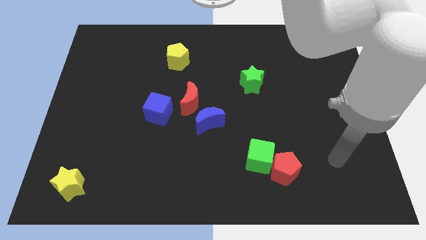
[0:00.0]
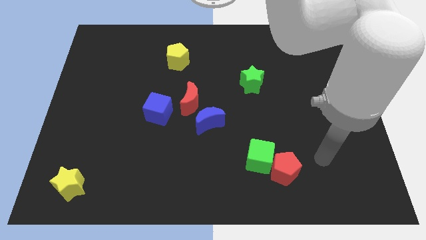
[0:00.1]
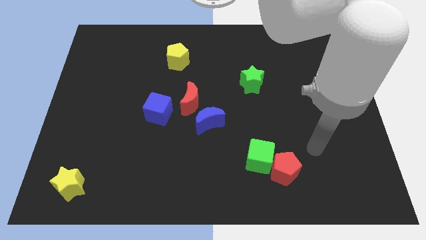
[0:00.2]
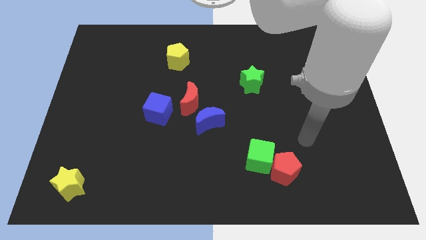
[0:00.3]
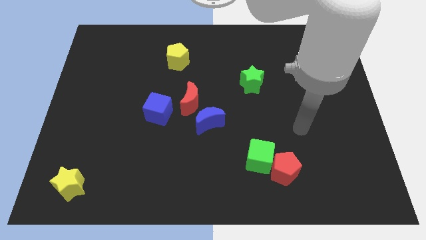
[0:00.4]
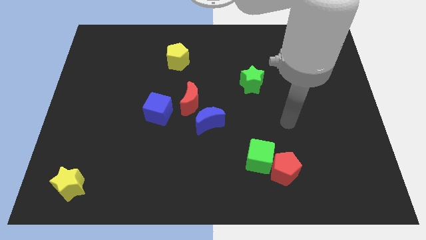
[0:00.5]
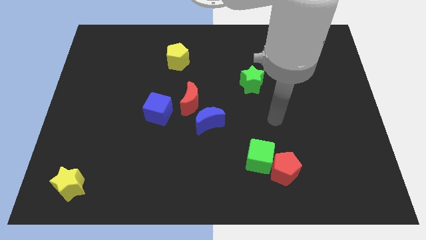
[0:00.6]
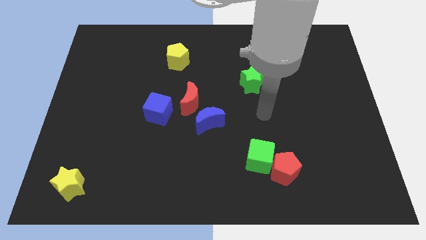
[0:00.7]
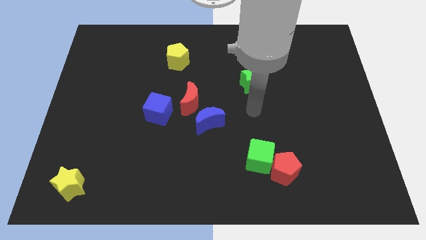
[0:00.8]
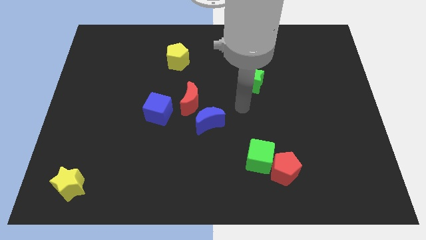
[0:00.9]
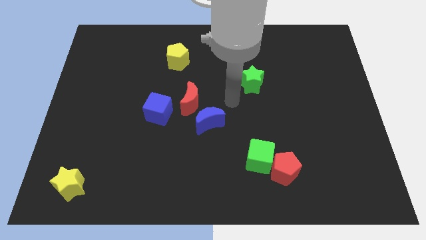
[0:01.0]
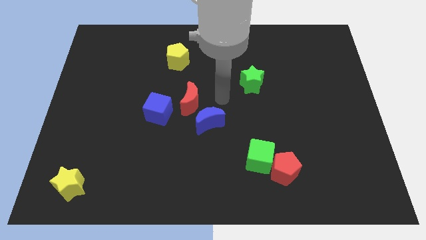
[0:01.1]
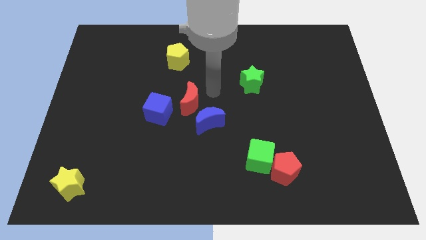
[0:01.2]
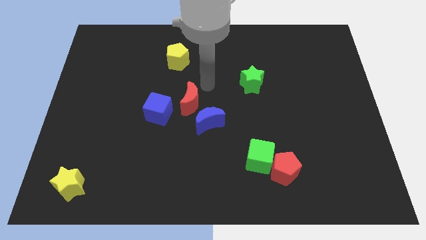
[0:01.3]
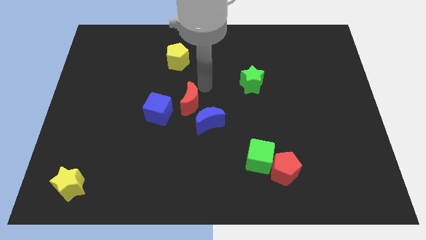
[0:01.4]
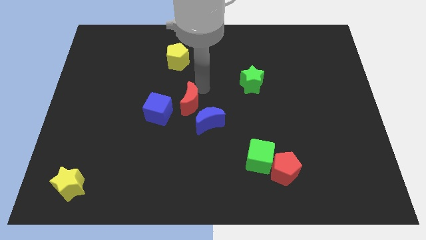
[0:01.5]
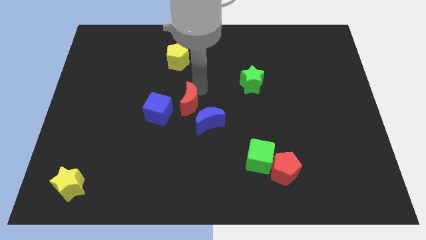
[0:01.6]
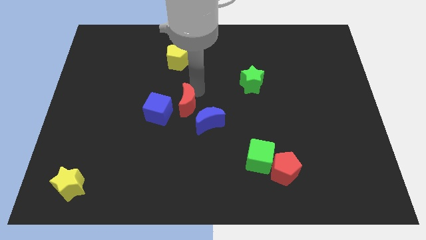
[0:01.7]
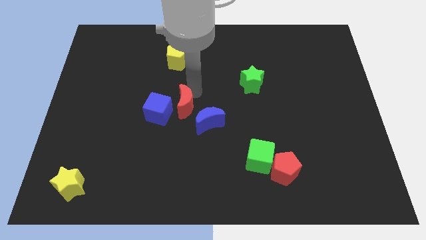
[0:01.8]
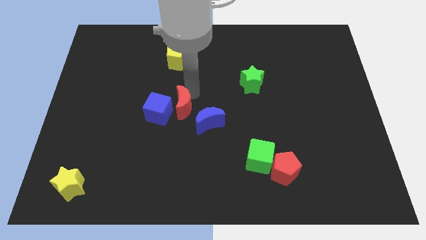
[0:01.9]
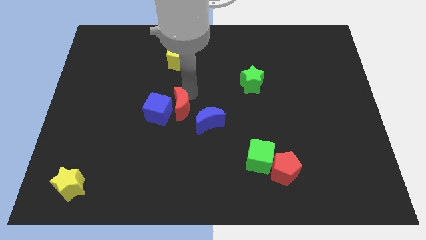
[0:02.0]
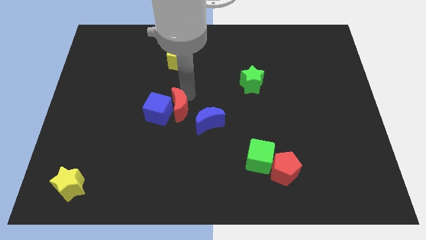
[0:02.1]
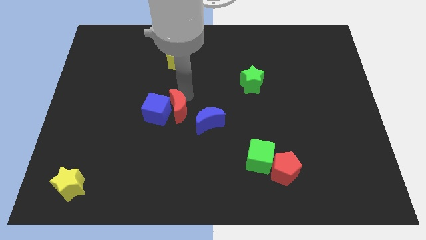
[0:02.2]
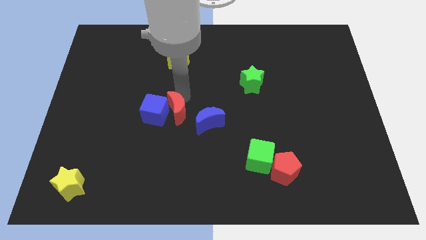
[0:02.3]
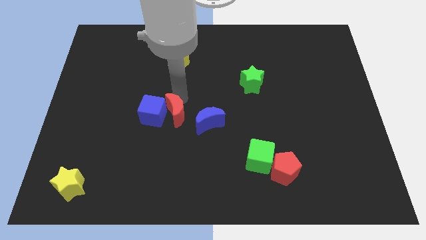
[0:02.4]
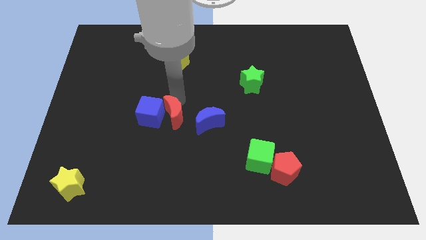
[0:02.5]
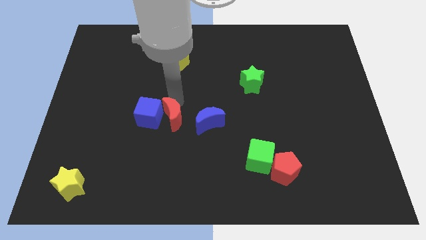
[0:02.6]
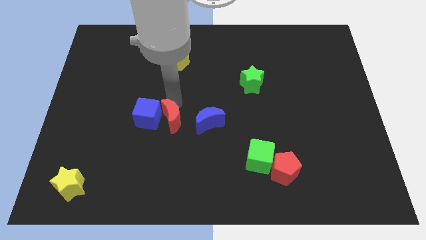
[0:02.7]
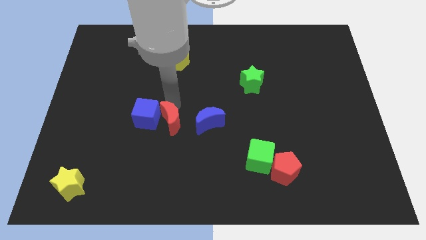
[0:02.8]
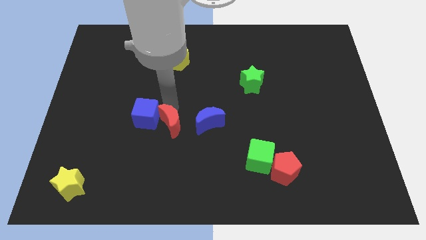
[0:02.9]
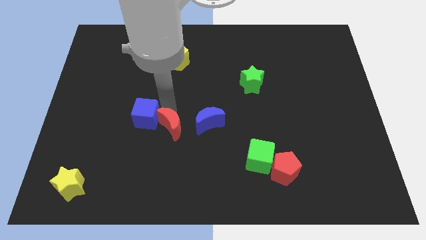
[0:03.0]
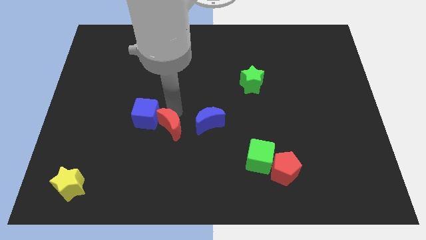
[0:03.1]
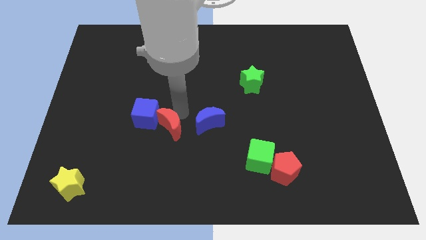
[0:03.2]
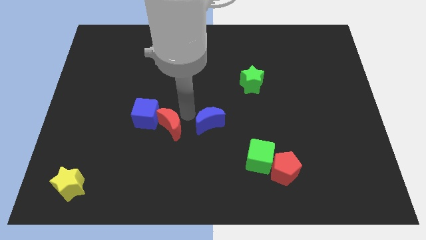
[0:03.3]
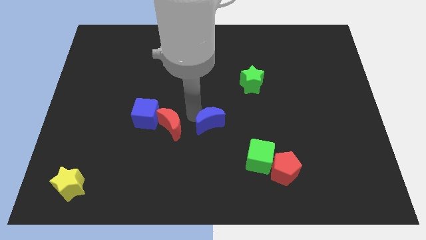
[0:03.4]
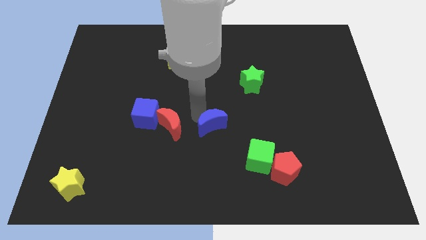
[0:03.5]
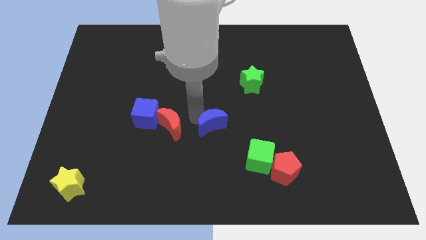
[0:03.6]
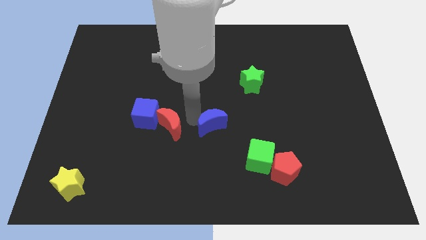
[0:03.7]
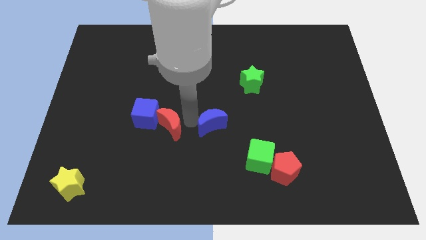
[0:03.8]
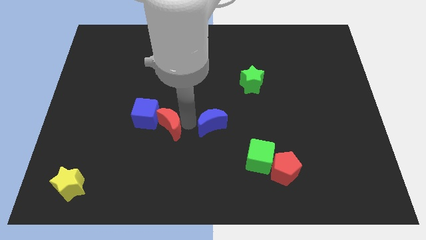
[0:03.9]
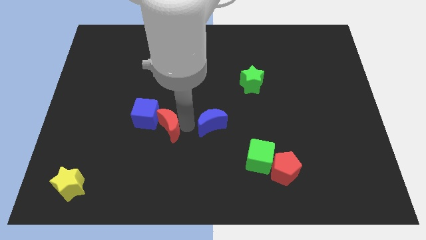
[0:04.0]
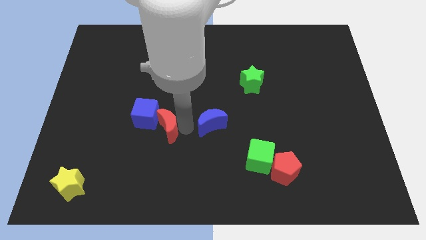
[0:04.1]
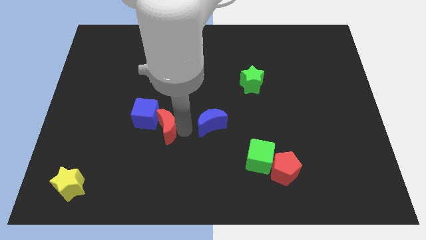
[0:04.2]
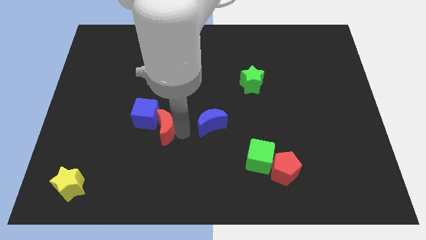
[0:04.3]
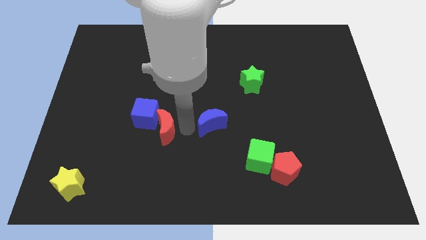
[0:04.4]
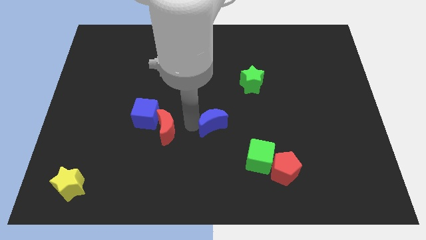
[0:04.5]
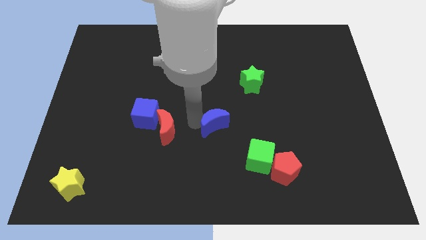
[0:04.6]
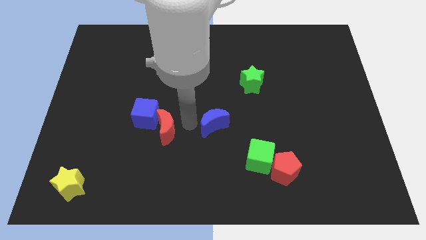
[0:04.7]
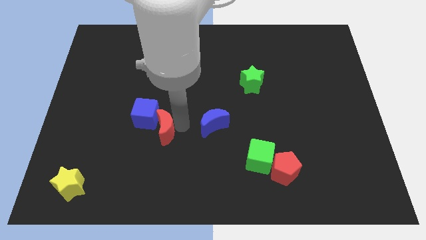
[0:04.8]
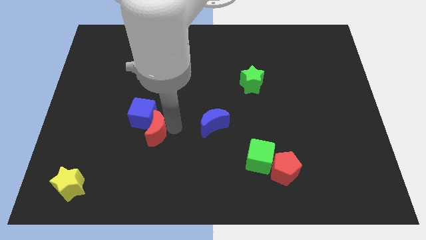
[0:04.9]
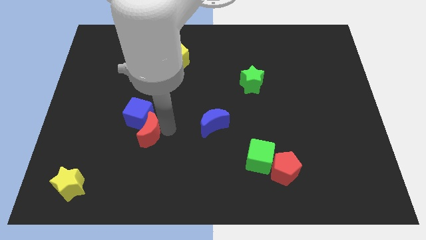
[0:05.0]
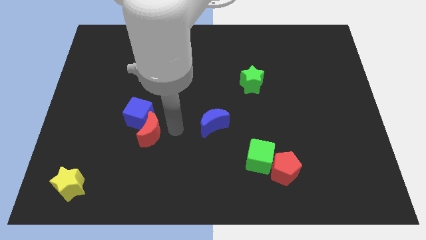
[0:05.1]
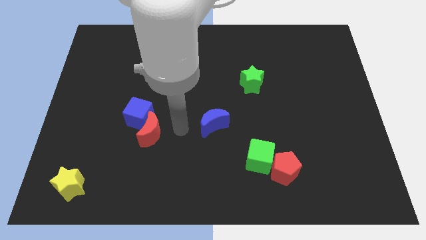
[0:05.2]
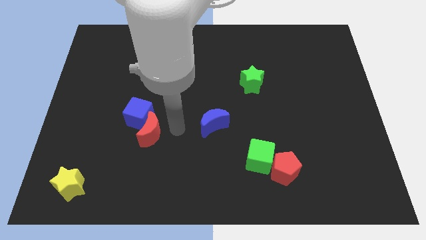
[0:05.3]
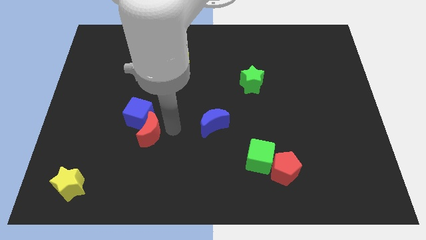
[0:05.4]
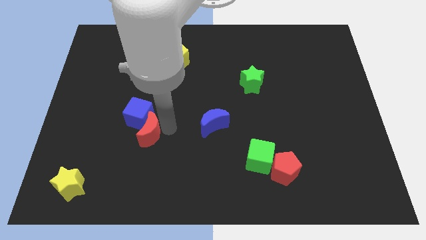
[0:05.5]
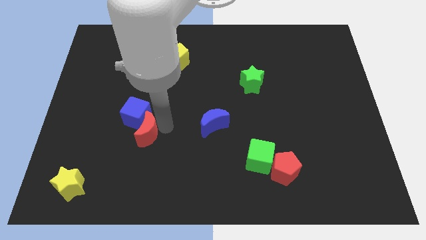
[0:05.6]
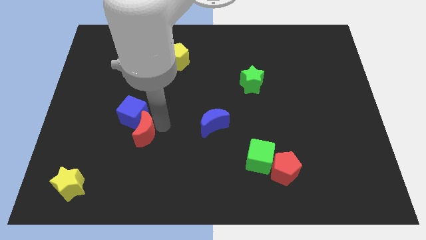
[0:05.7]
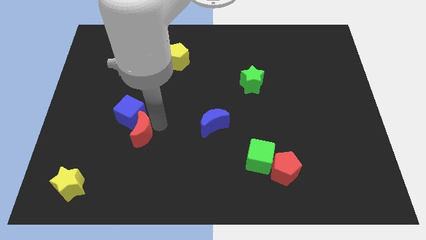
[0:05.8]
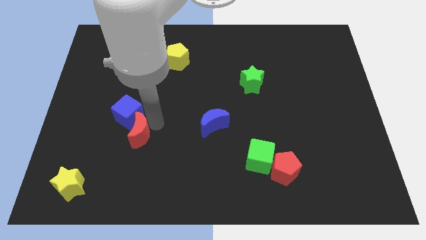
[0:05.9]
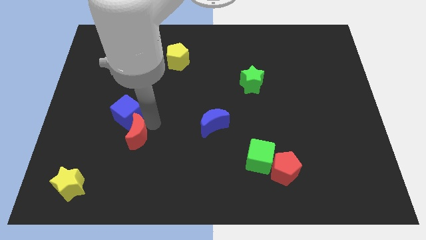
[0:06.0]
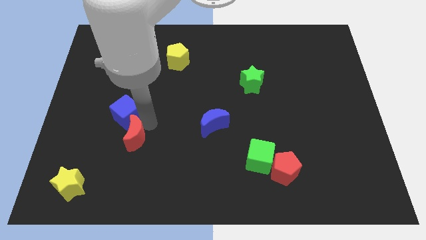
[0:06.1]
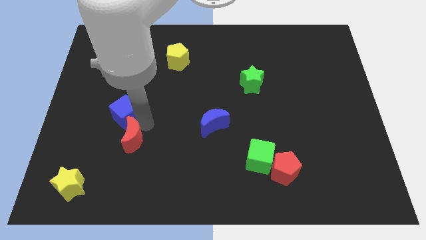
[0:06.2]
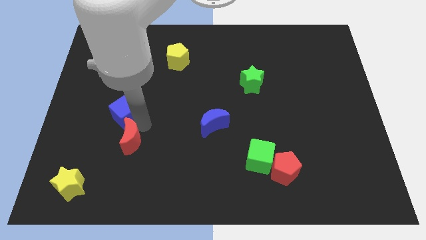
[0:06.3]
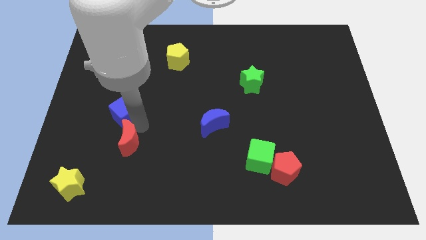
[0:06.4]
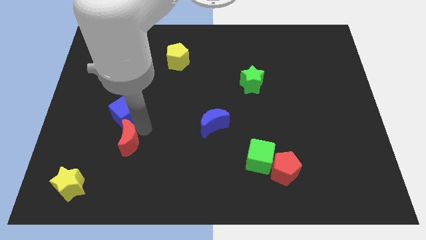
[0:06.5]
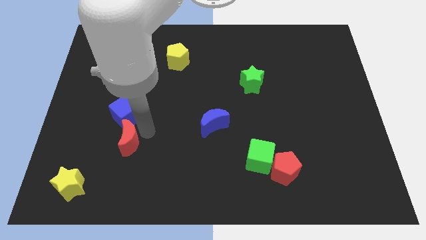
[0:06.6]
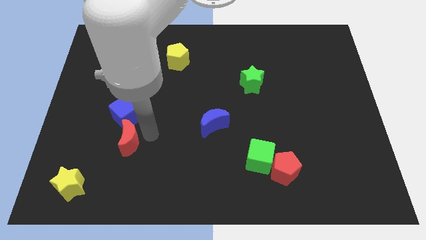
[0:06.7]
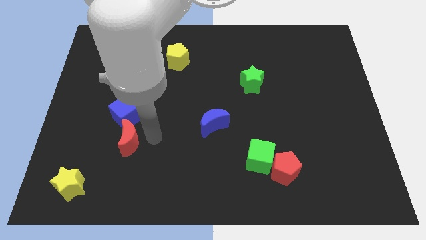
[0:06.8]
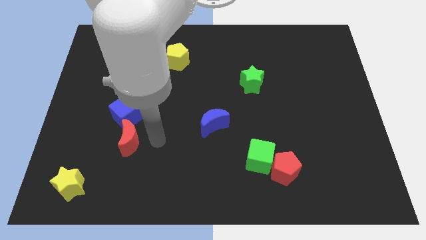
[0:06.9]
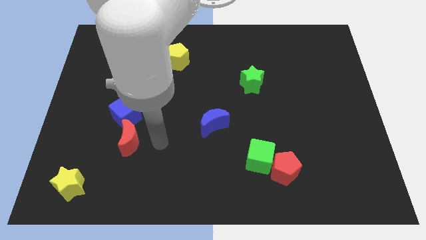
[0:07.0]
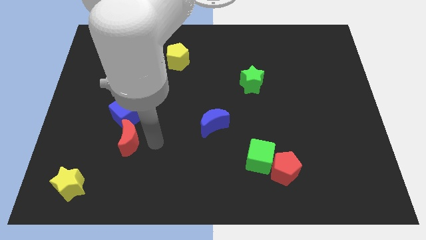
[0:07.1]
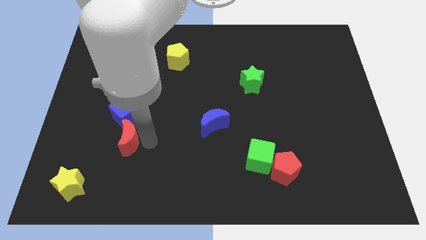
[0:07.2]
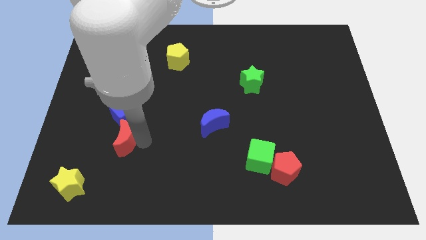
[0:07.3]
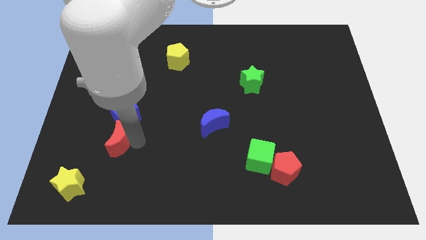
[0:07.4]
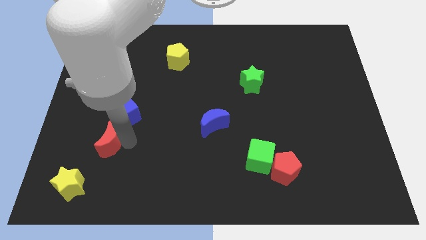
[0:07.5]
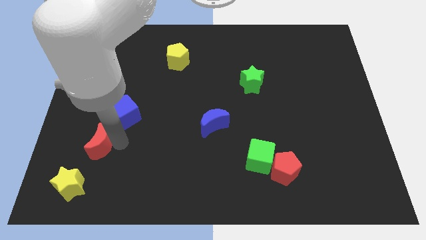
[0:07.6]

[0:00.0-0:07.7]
put the red moon to the top of the yellow star
